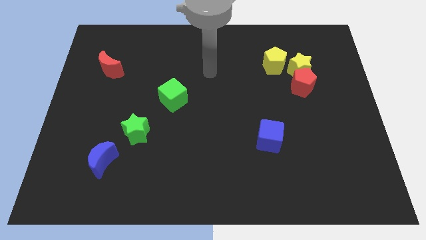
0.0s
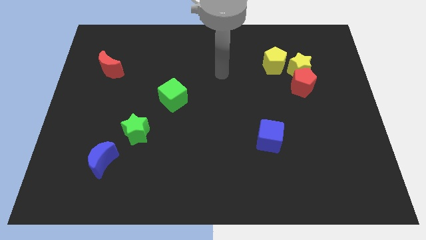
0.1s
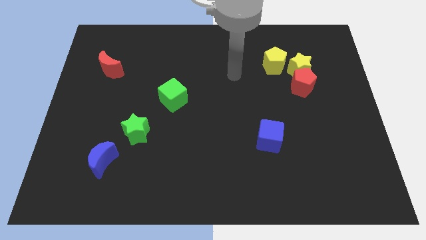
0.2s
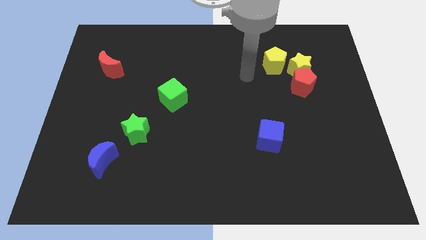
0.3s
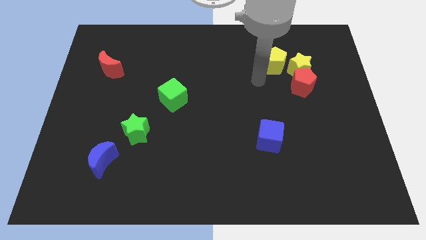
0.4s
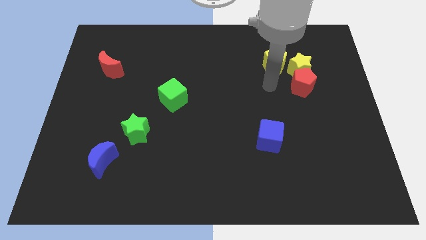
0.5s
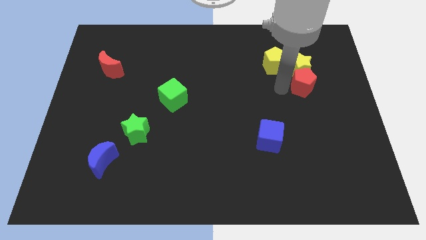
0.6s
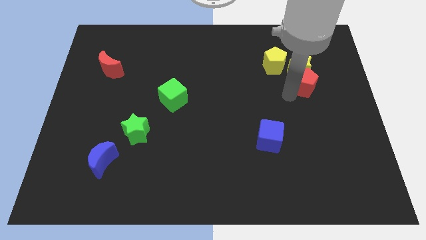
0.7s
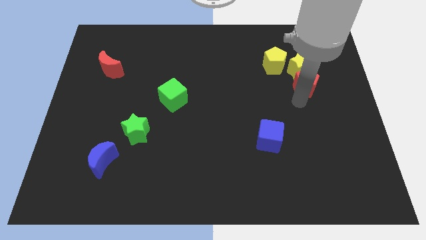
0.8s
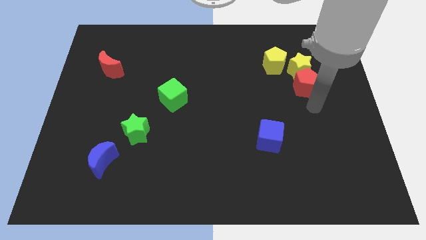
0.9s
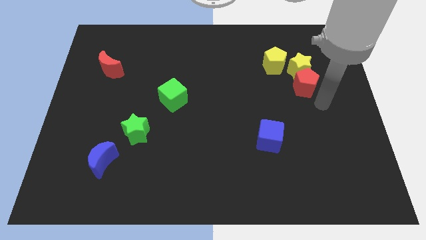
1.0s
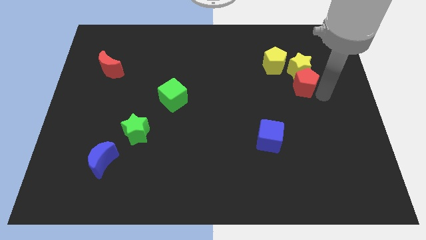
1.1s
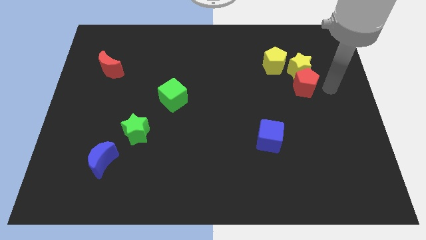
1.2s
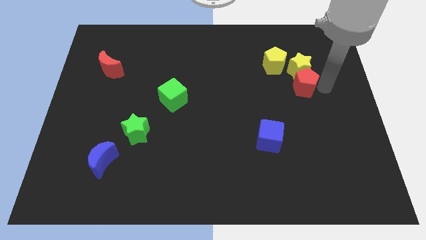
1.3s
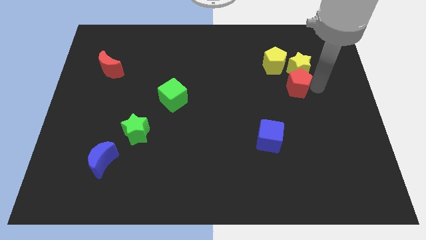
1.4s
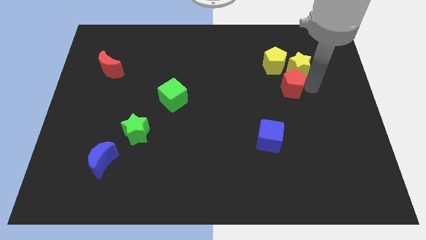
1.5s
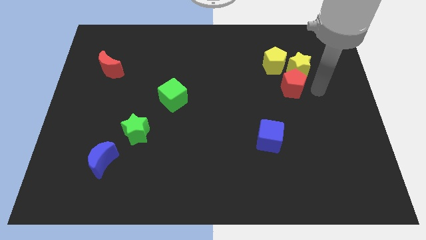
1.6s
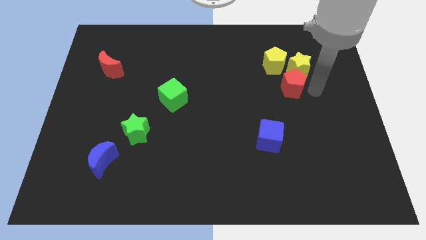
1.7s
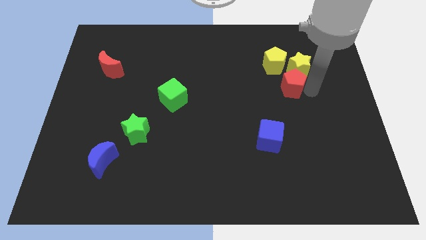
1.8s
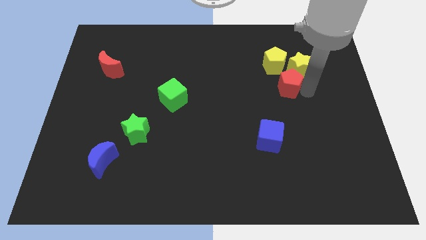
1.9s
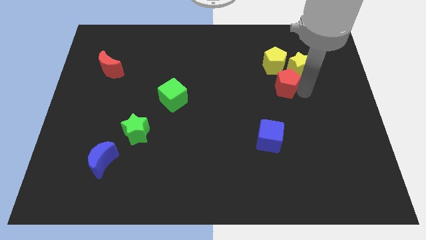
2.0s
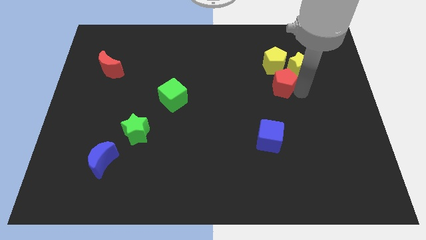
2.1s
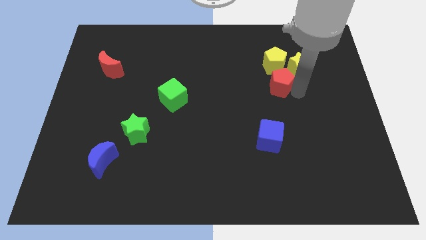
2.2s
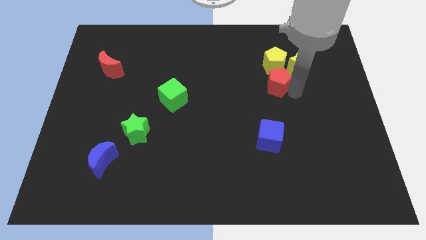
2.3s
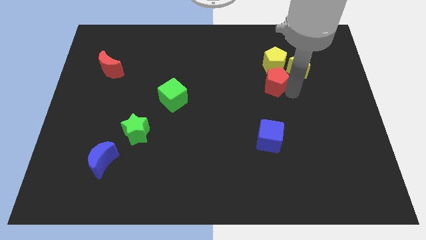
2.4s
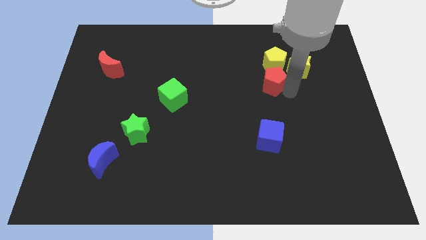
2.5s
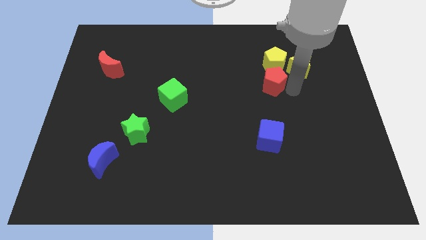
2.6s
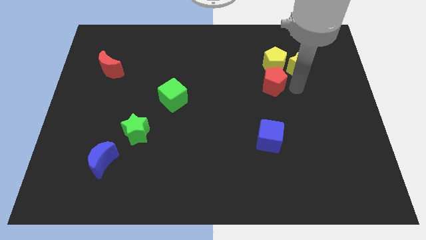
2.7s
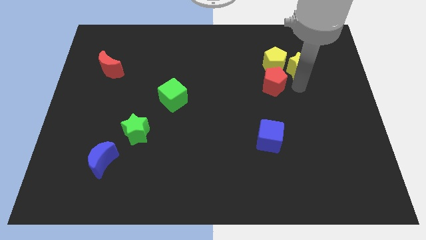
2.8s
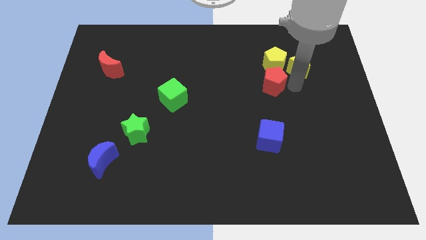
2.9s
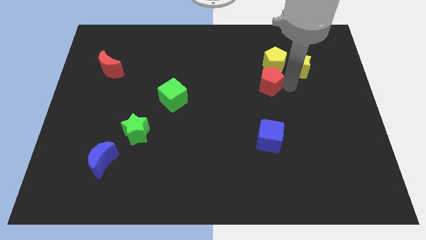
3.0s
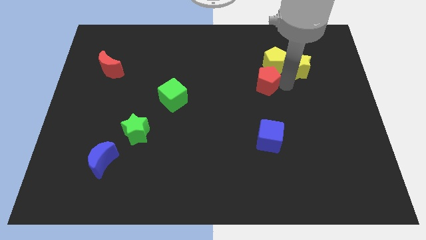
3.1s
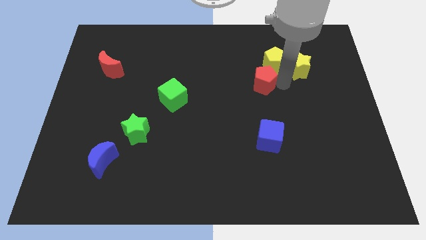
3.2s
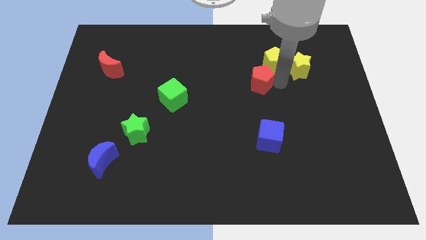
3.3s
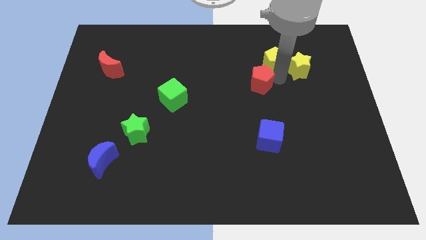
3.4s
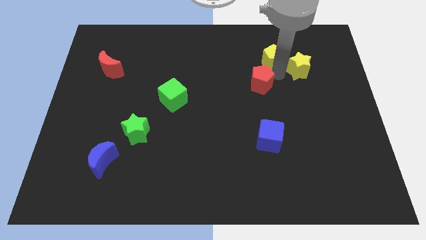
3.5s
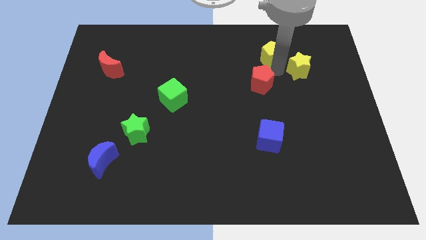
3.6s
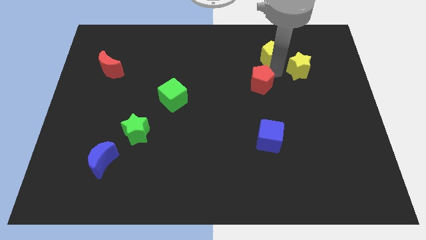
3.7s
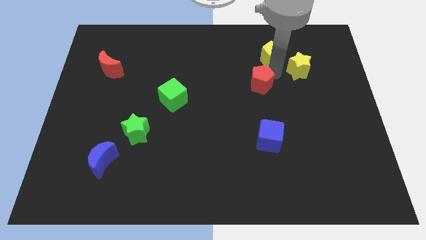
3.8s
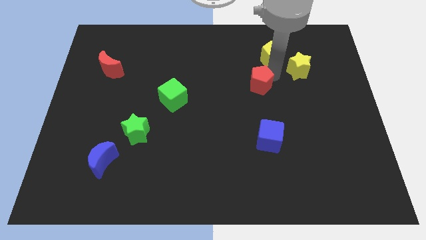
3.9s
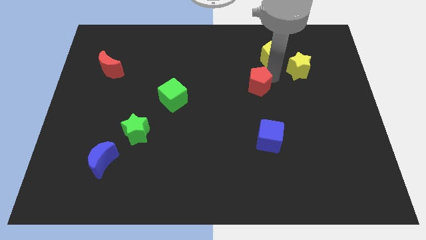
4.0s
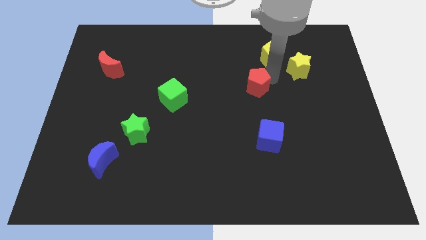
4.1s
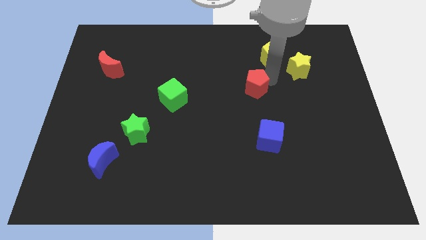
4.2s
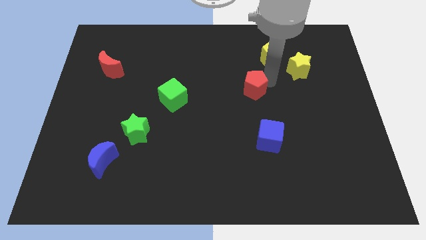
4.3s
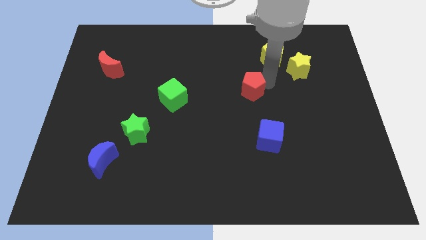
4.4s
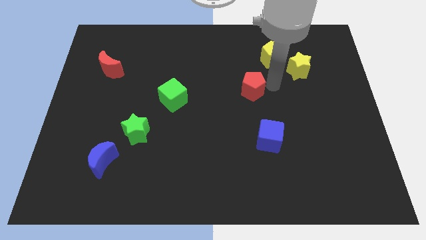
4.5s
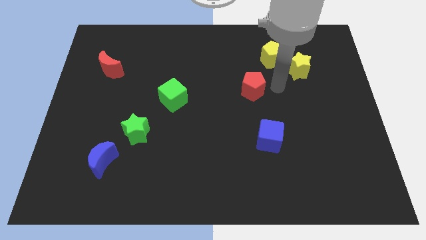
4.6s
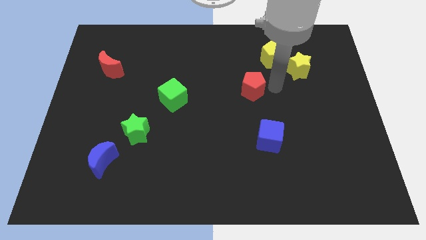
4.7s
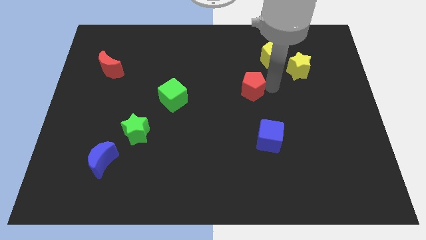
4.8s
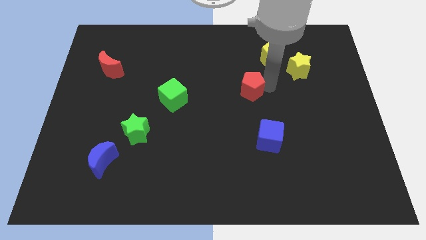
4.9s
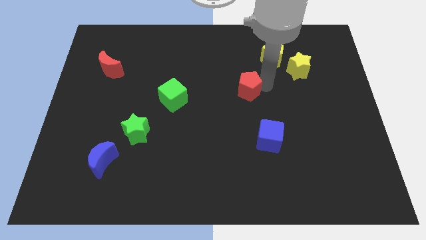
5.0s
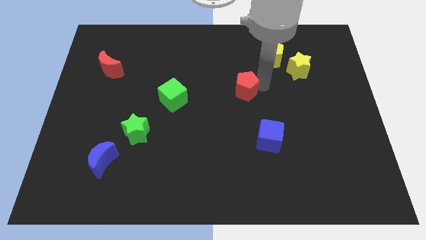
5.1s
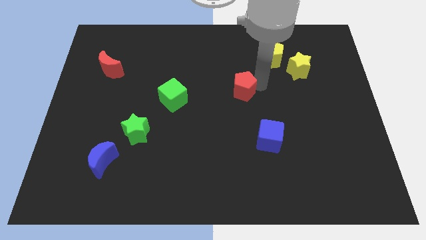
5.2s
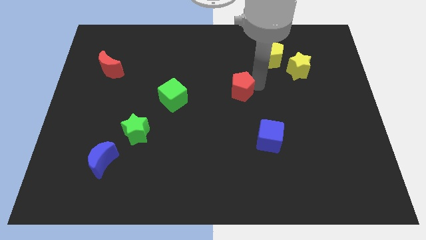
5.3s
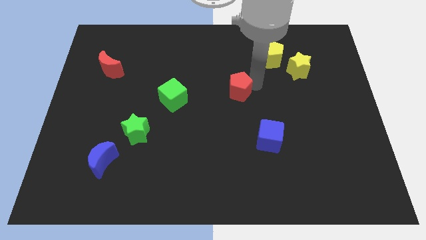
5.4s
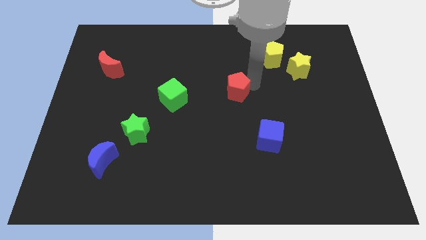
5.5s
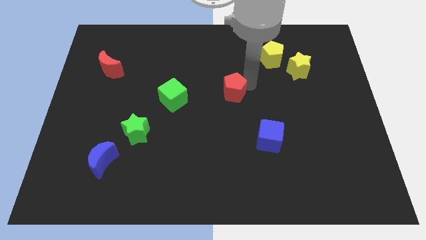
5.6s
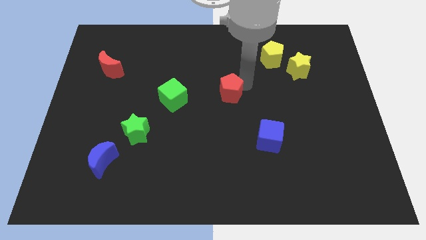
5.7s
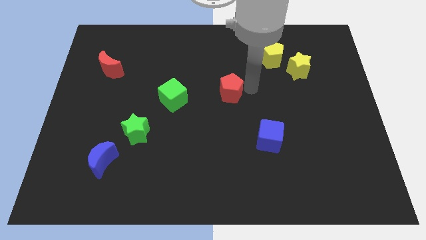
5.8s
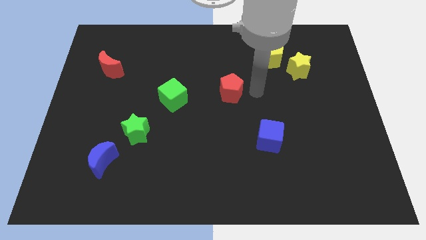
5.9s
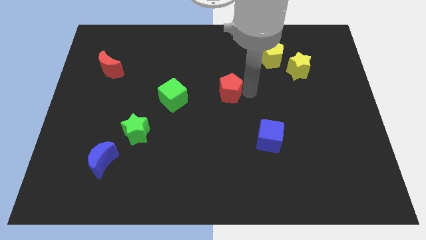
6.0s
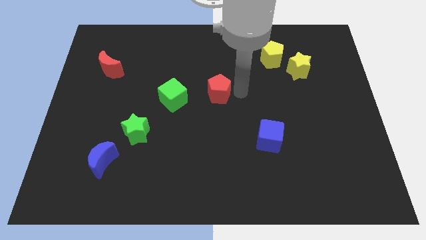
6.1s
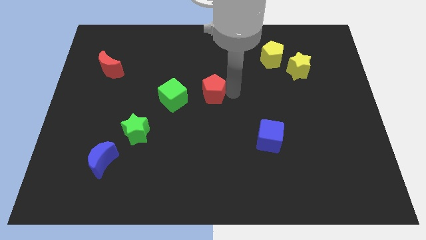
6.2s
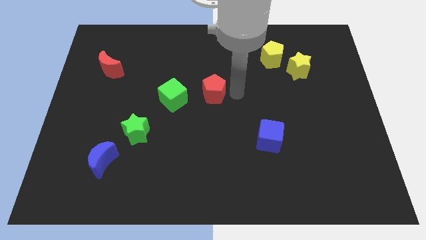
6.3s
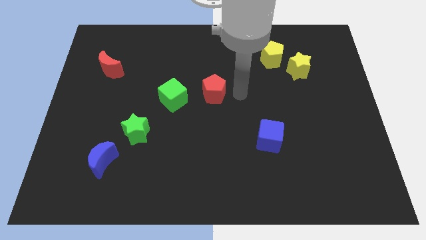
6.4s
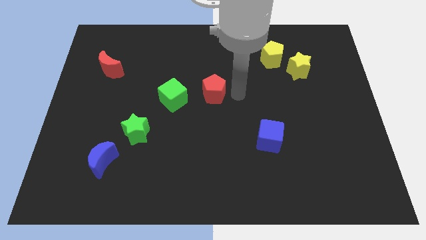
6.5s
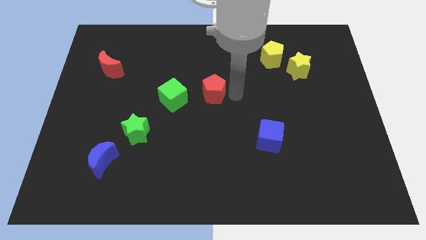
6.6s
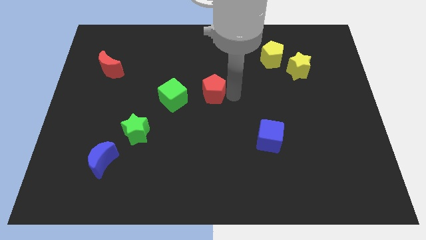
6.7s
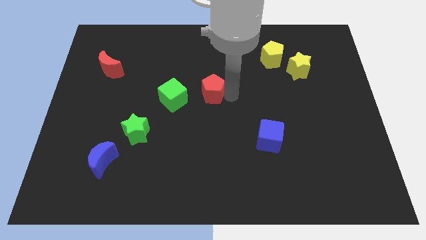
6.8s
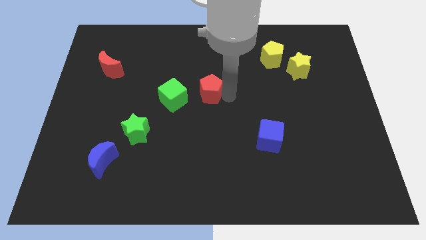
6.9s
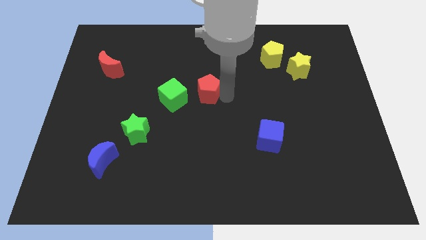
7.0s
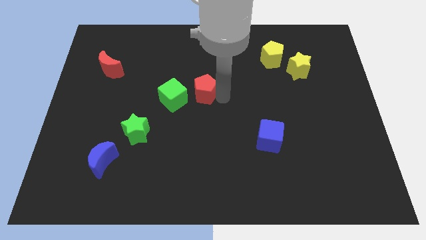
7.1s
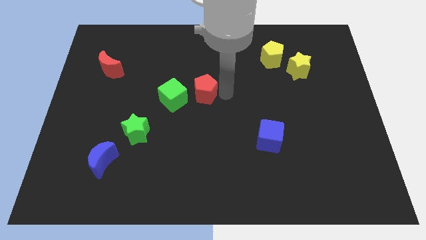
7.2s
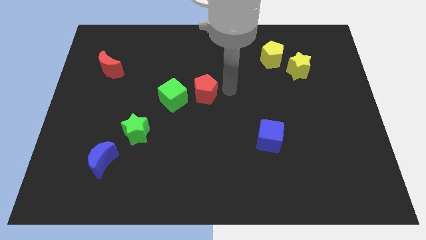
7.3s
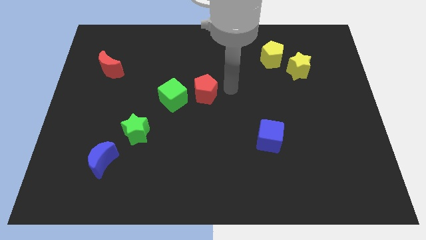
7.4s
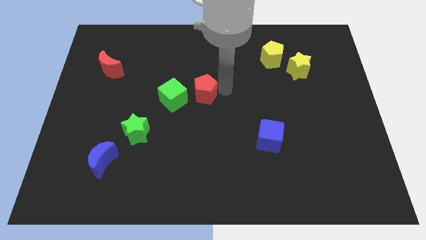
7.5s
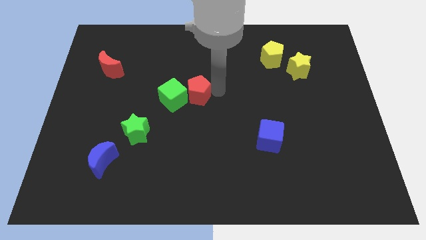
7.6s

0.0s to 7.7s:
slide the red pentagon to the green cube
